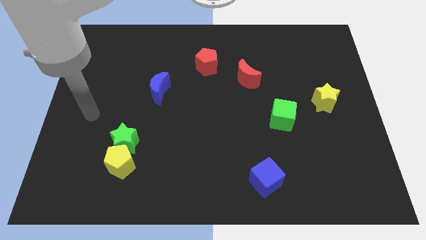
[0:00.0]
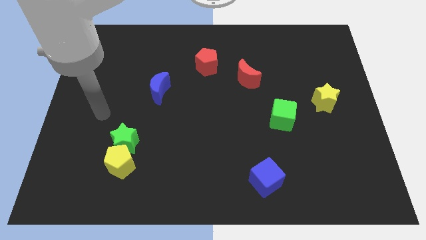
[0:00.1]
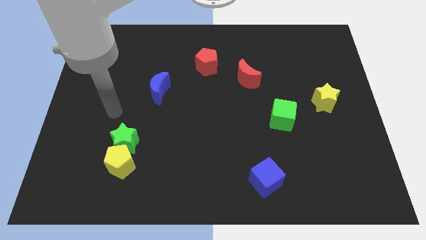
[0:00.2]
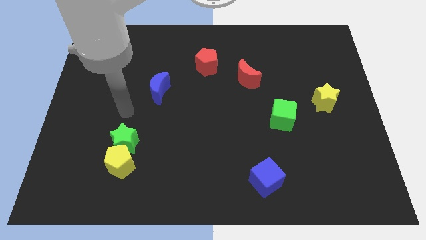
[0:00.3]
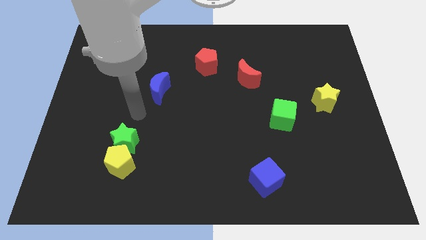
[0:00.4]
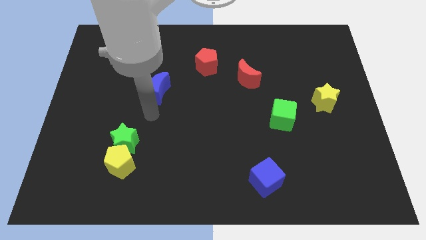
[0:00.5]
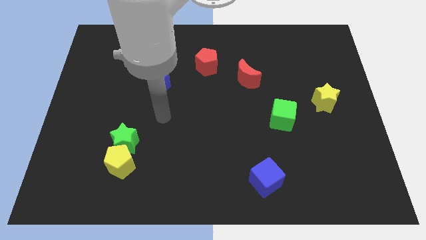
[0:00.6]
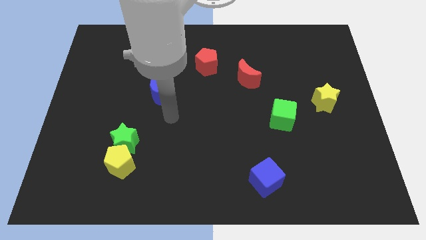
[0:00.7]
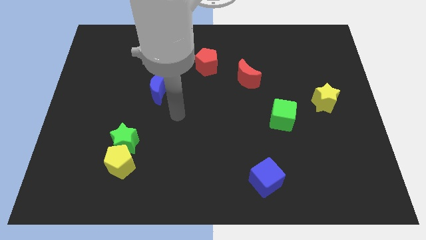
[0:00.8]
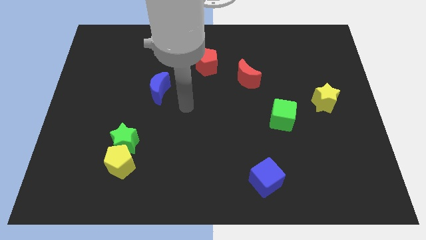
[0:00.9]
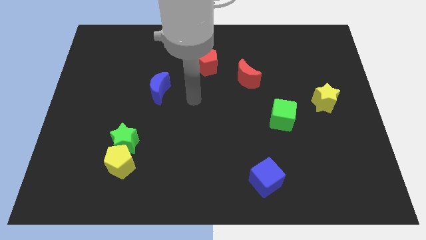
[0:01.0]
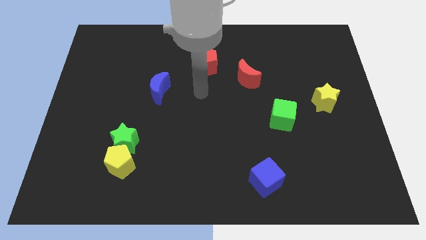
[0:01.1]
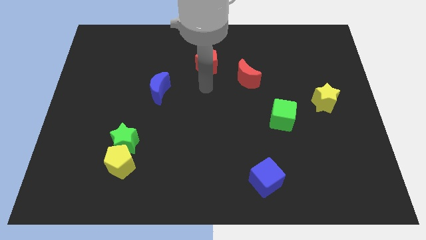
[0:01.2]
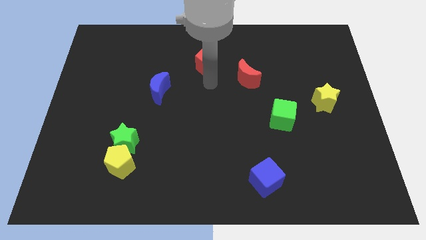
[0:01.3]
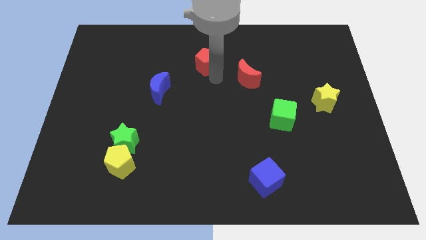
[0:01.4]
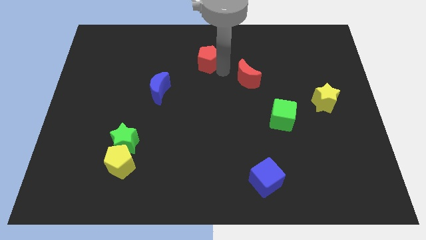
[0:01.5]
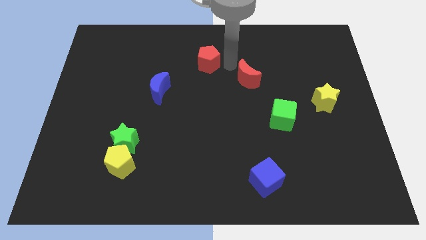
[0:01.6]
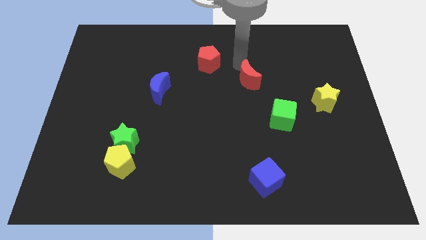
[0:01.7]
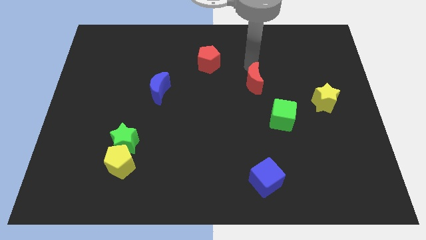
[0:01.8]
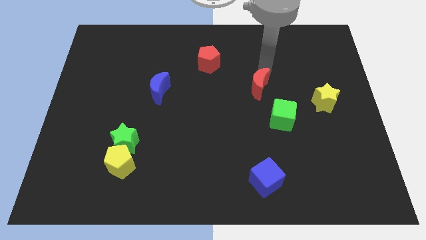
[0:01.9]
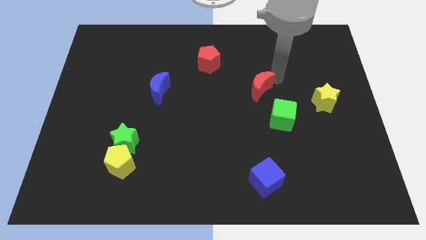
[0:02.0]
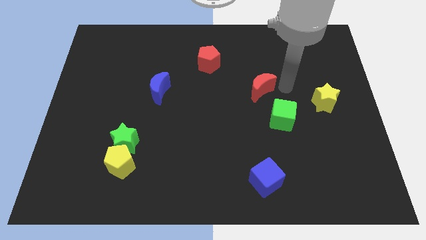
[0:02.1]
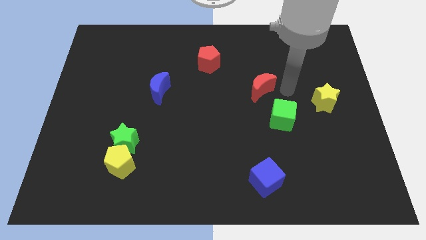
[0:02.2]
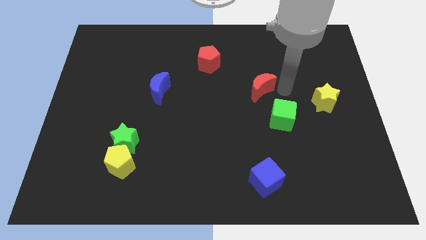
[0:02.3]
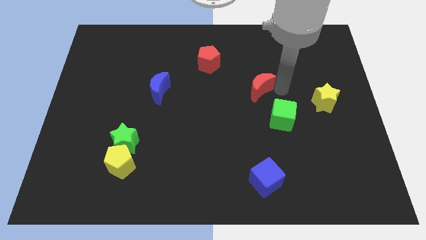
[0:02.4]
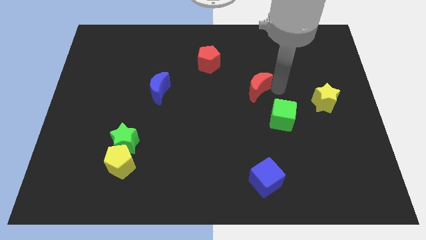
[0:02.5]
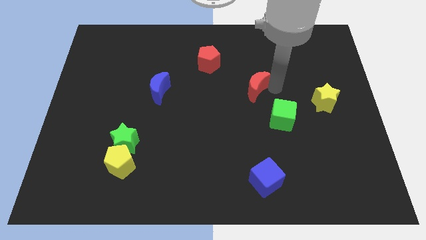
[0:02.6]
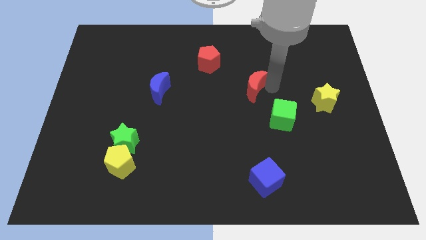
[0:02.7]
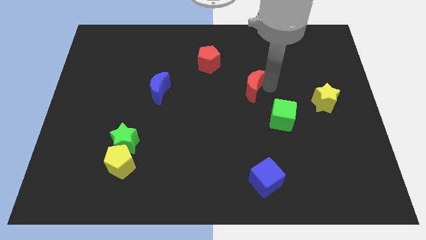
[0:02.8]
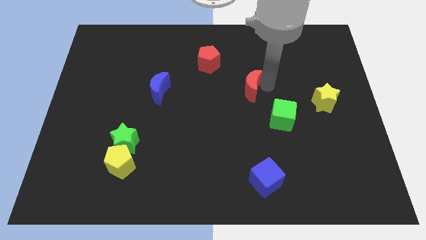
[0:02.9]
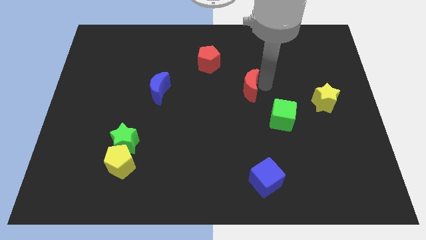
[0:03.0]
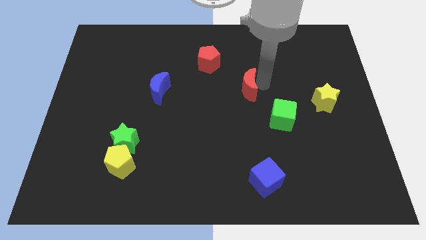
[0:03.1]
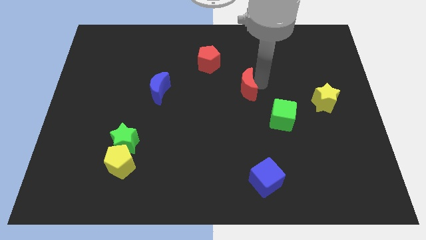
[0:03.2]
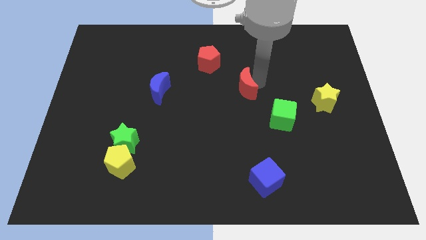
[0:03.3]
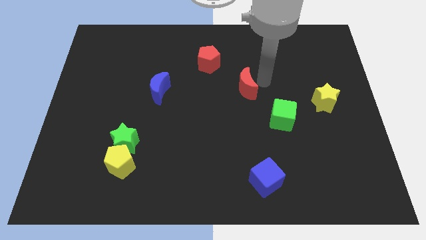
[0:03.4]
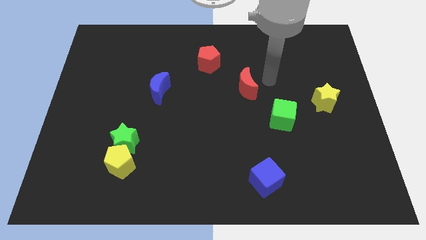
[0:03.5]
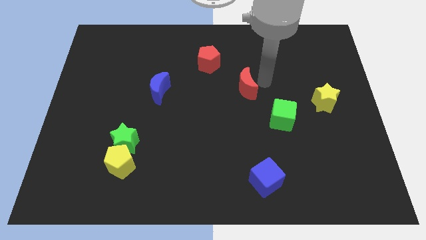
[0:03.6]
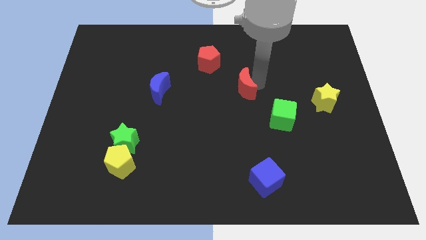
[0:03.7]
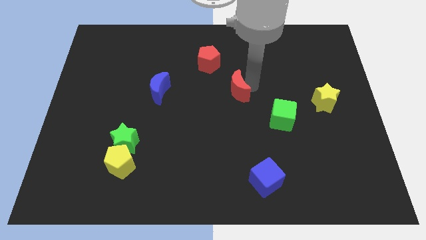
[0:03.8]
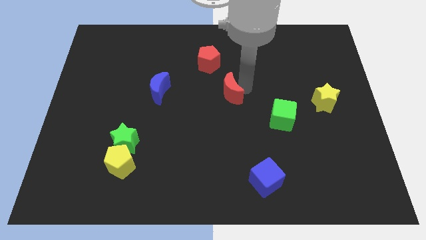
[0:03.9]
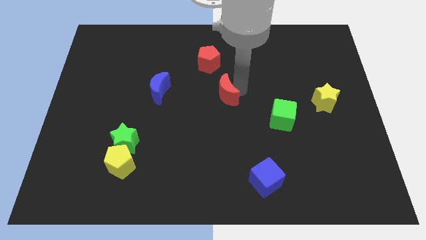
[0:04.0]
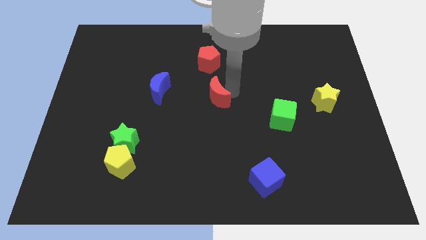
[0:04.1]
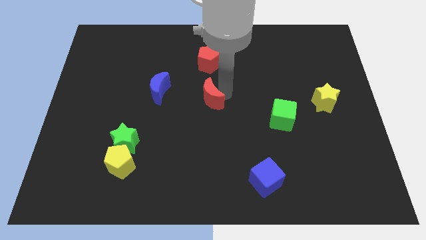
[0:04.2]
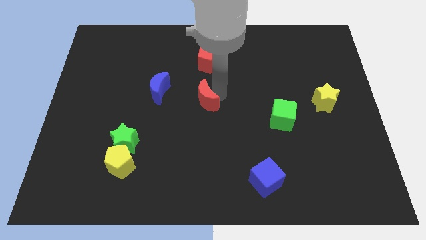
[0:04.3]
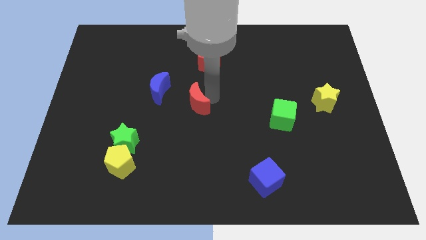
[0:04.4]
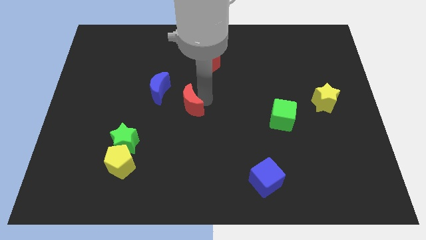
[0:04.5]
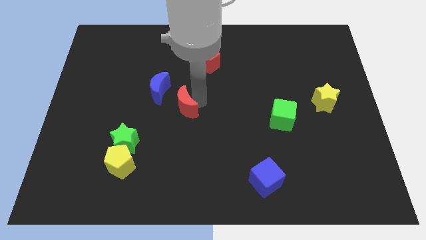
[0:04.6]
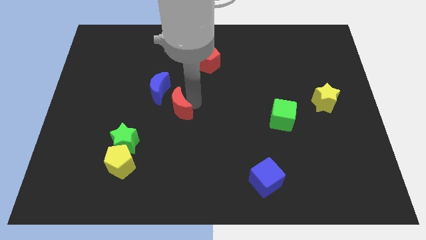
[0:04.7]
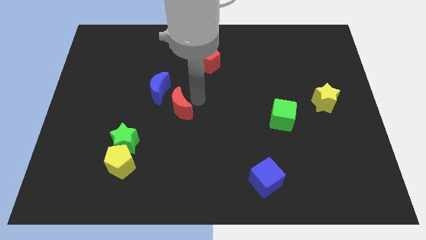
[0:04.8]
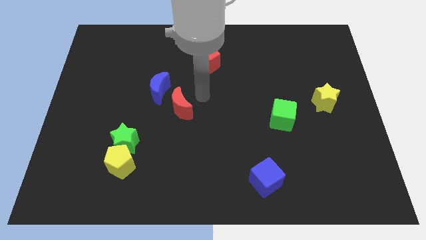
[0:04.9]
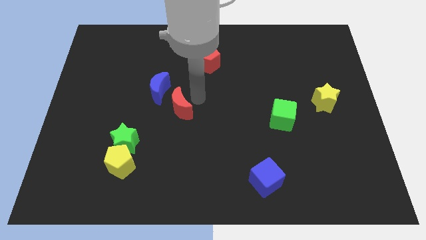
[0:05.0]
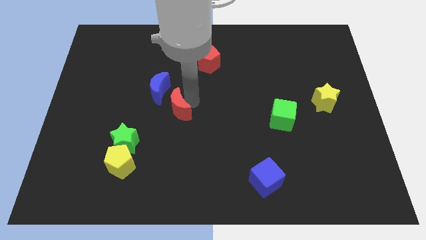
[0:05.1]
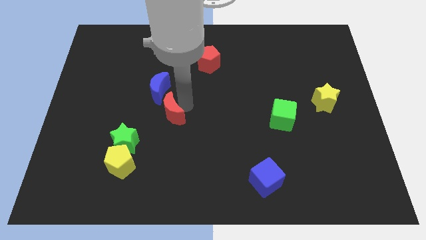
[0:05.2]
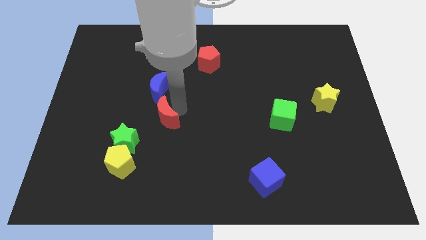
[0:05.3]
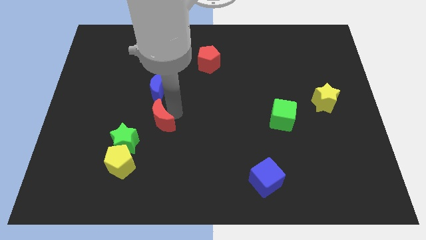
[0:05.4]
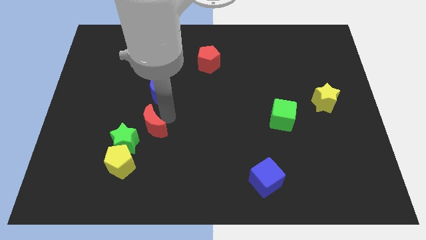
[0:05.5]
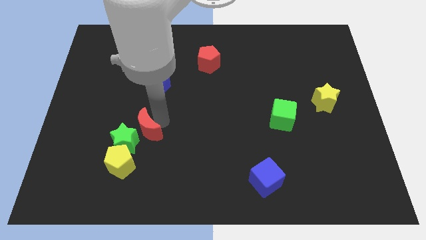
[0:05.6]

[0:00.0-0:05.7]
push the red moon towards the green star

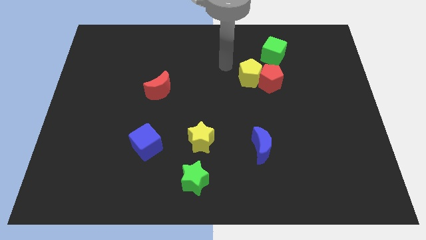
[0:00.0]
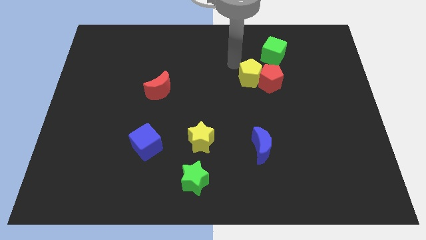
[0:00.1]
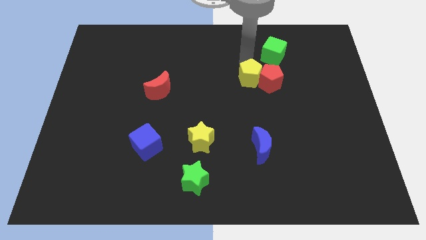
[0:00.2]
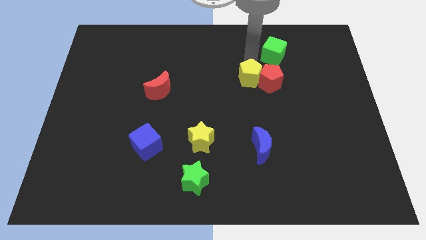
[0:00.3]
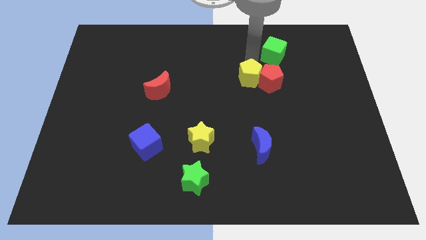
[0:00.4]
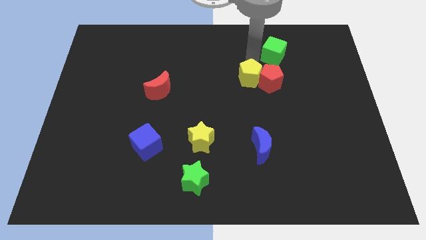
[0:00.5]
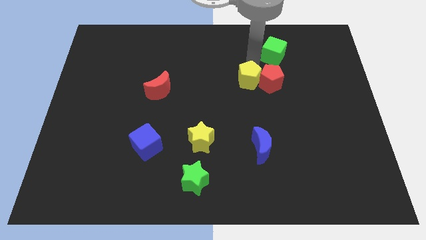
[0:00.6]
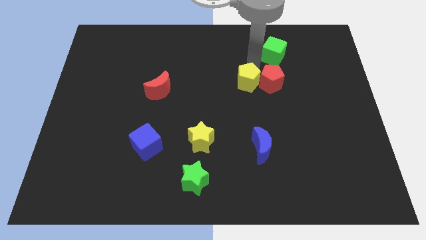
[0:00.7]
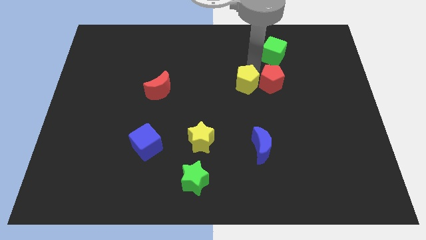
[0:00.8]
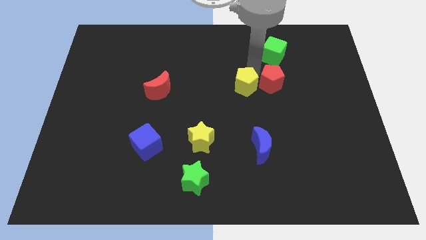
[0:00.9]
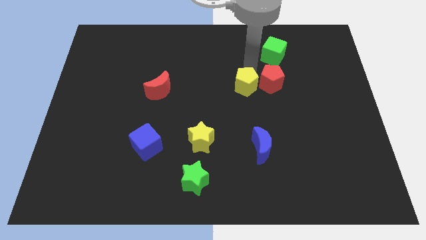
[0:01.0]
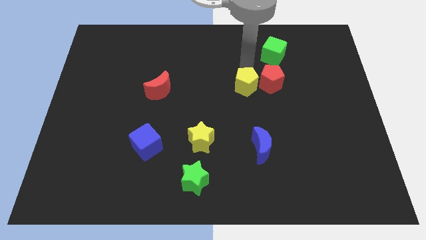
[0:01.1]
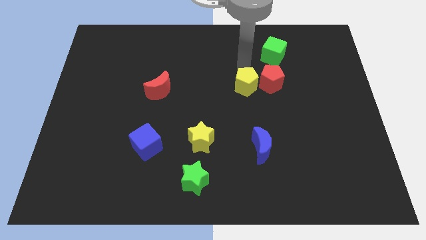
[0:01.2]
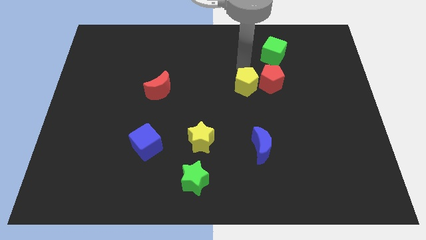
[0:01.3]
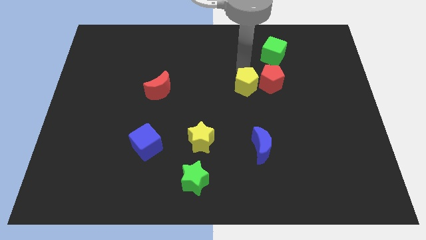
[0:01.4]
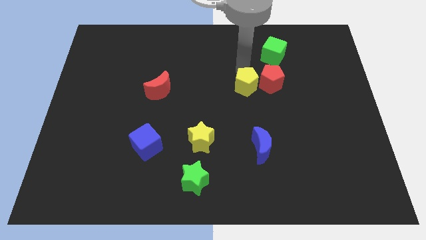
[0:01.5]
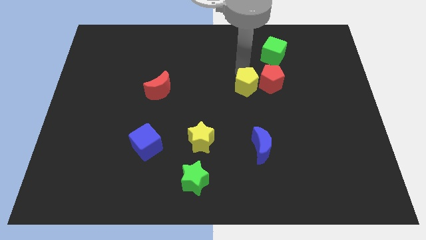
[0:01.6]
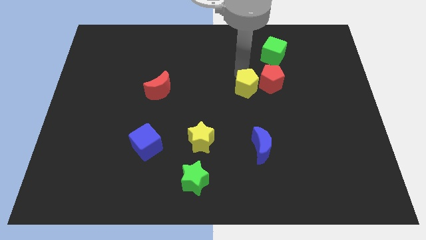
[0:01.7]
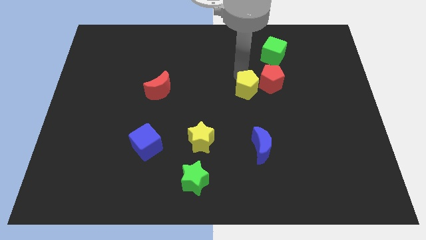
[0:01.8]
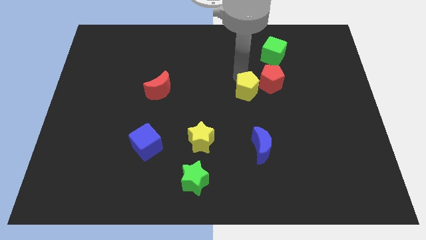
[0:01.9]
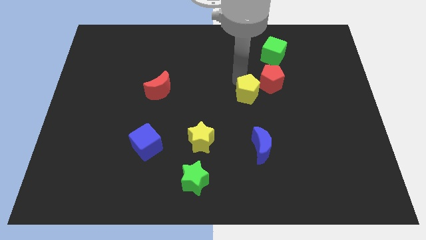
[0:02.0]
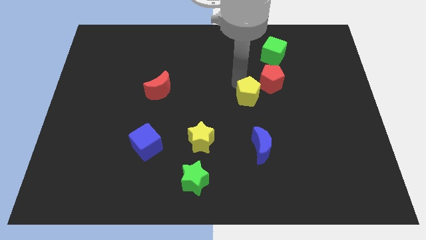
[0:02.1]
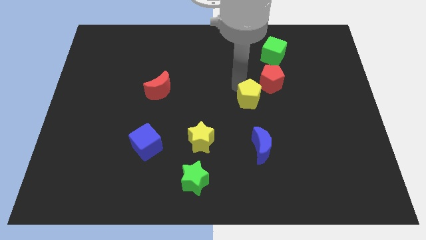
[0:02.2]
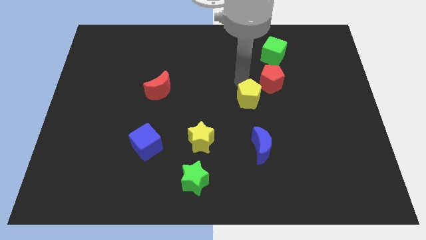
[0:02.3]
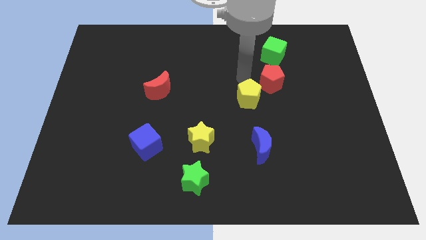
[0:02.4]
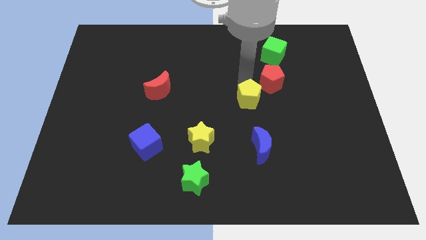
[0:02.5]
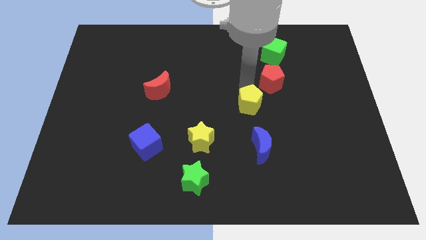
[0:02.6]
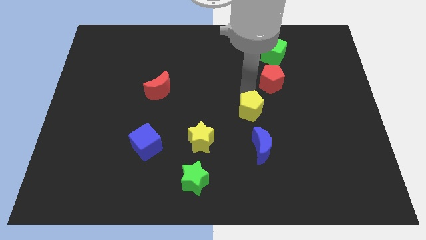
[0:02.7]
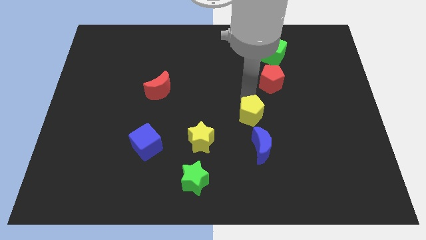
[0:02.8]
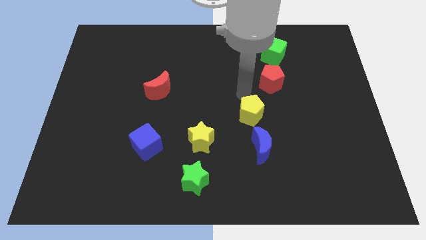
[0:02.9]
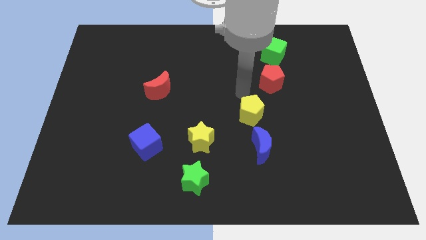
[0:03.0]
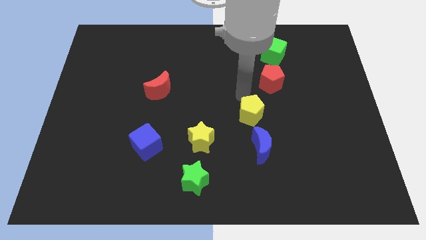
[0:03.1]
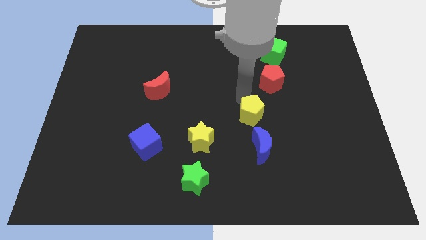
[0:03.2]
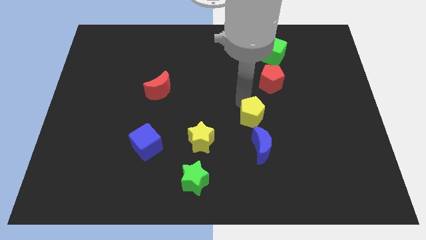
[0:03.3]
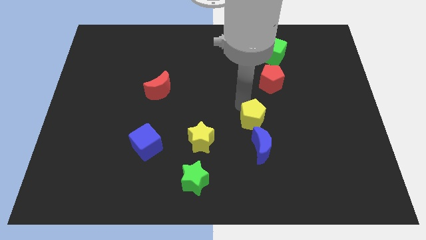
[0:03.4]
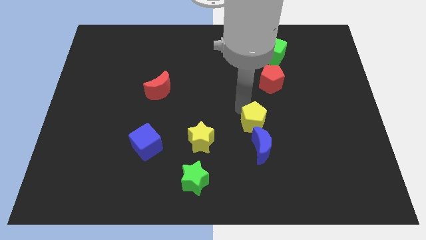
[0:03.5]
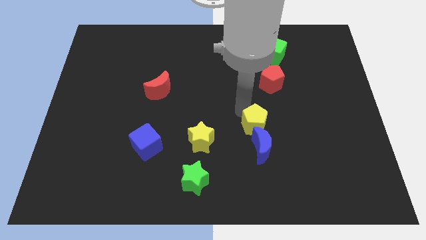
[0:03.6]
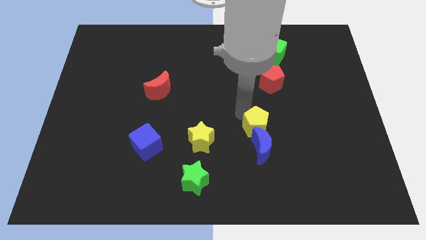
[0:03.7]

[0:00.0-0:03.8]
move the yellow pentagon close to the blue moon
